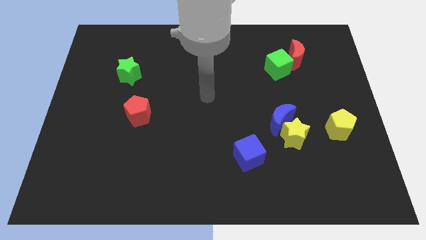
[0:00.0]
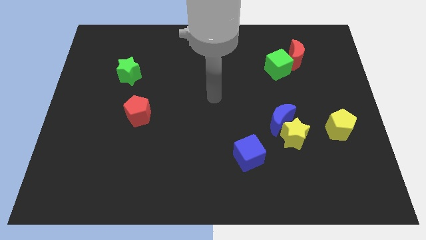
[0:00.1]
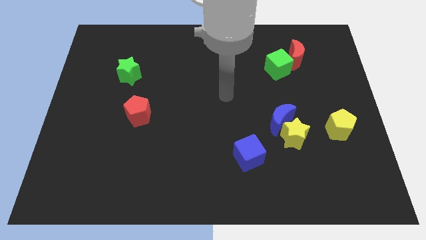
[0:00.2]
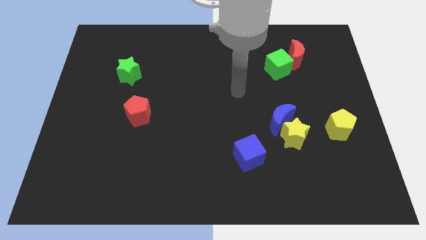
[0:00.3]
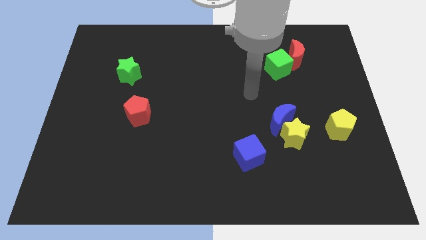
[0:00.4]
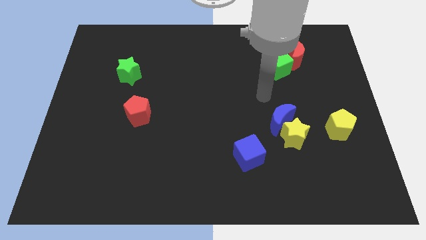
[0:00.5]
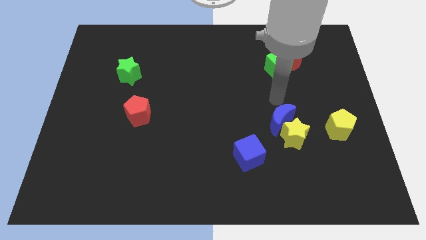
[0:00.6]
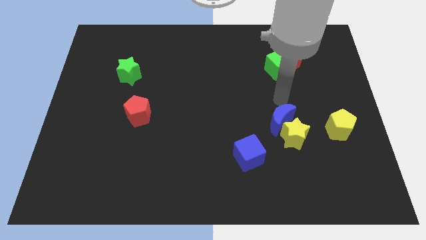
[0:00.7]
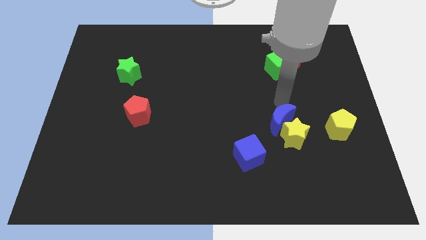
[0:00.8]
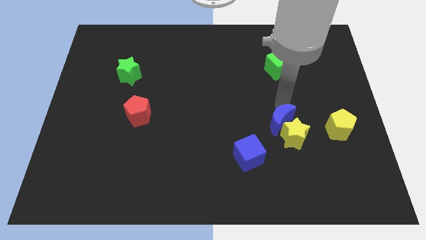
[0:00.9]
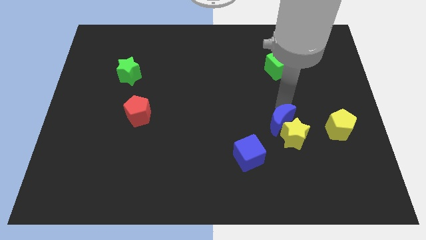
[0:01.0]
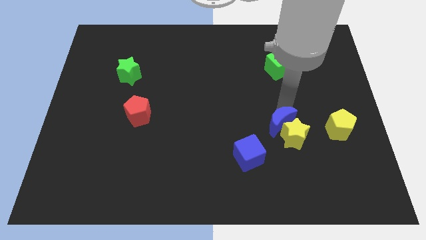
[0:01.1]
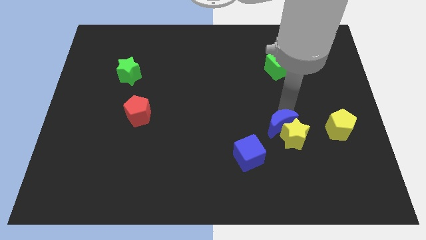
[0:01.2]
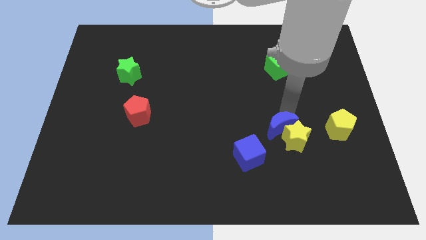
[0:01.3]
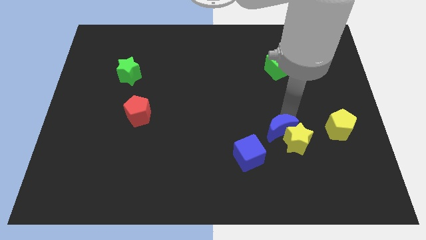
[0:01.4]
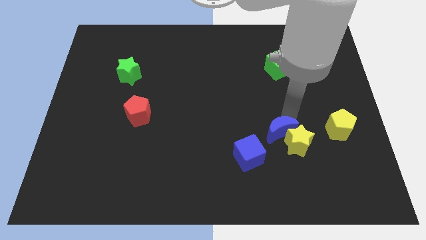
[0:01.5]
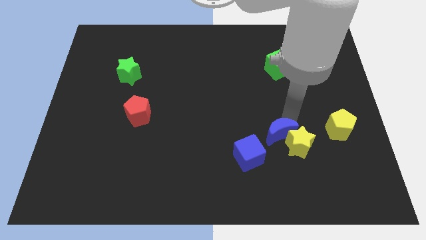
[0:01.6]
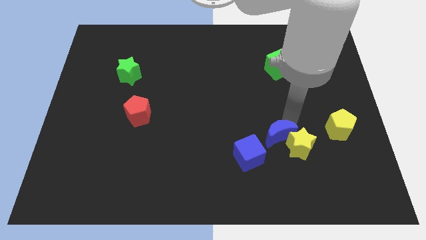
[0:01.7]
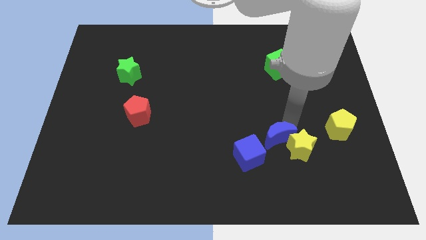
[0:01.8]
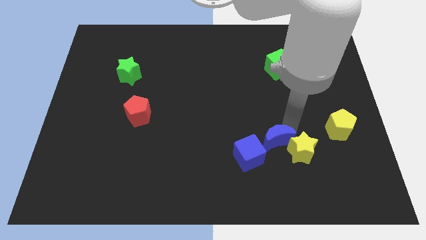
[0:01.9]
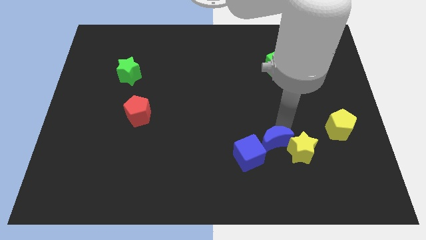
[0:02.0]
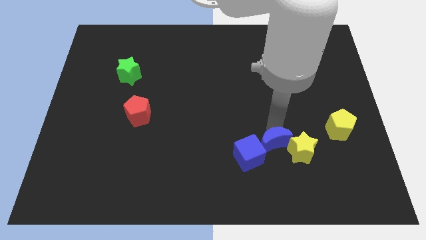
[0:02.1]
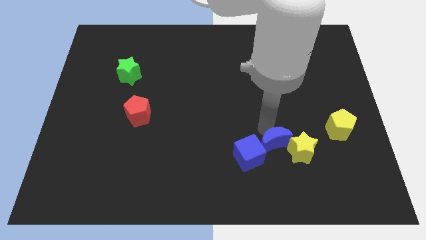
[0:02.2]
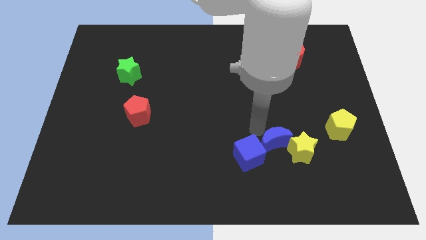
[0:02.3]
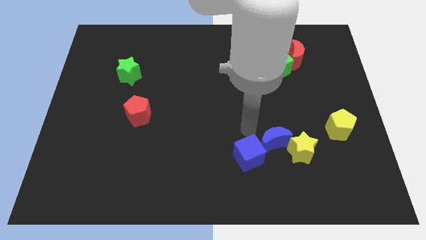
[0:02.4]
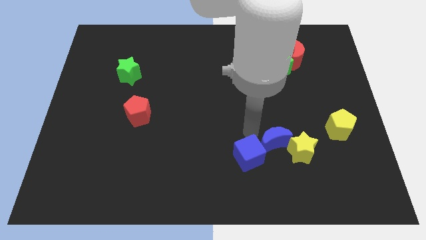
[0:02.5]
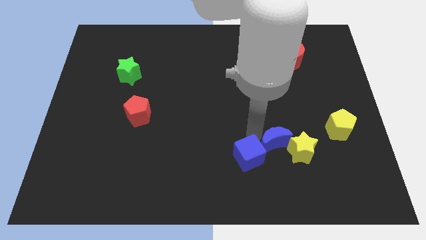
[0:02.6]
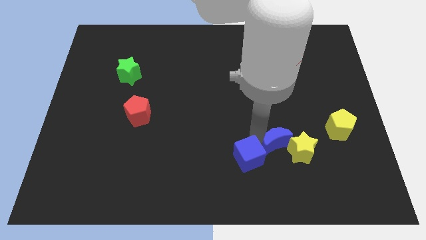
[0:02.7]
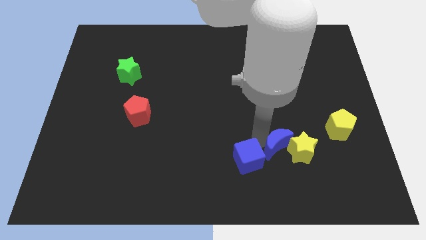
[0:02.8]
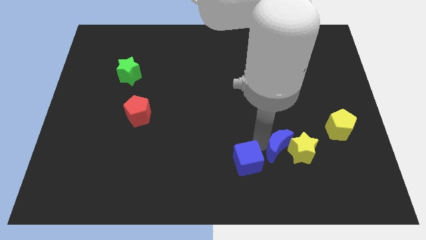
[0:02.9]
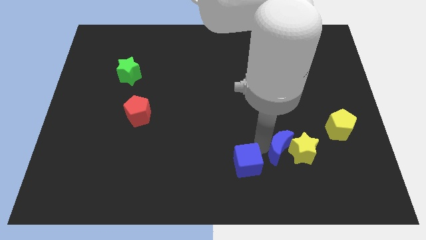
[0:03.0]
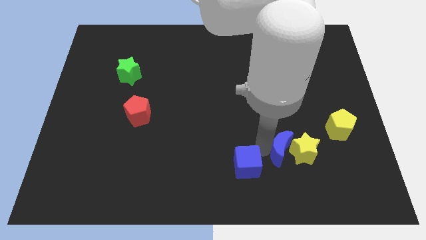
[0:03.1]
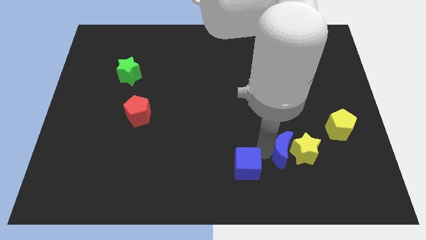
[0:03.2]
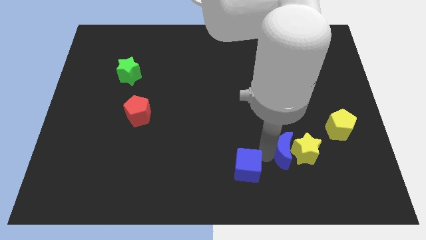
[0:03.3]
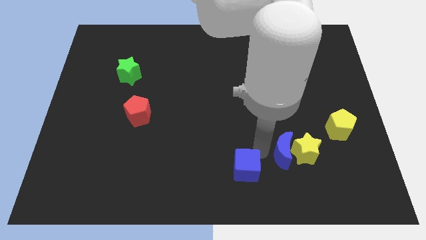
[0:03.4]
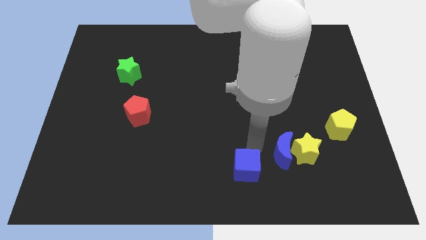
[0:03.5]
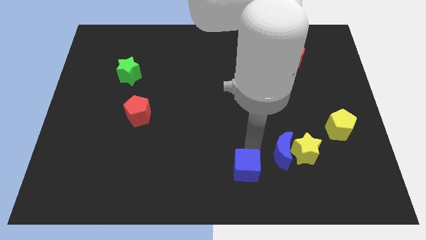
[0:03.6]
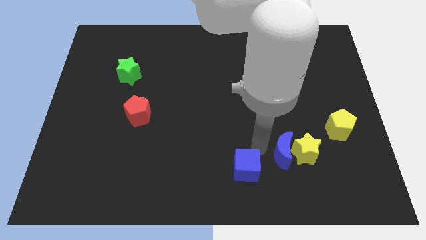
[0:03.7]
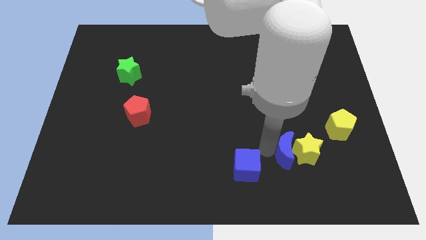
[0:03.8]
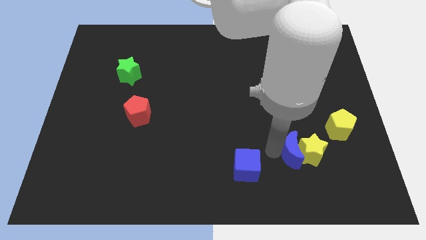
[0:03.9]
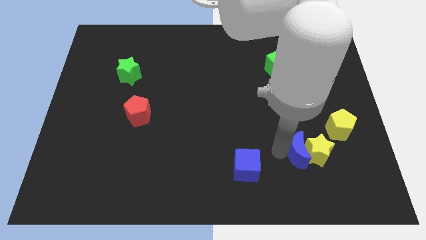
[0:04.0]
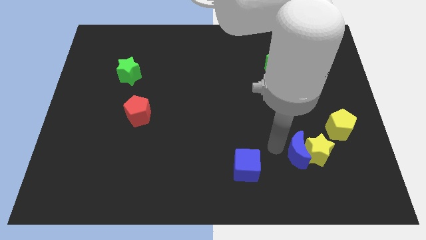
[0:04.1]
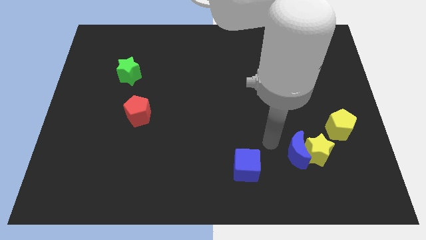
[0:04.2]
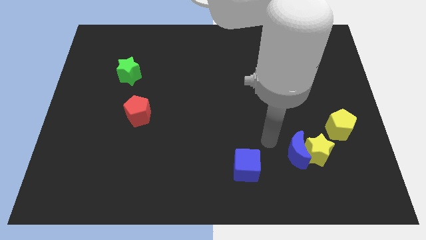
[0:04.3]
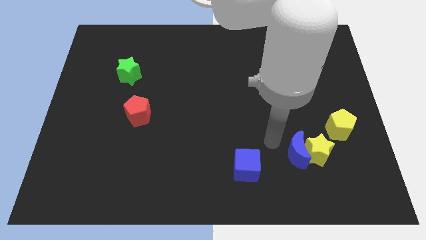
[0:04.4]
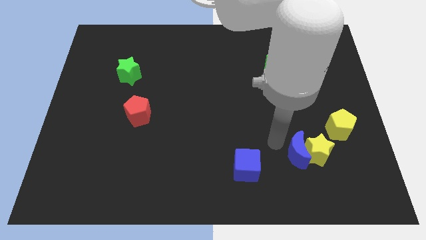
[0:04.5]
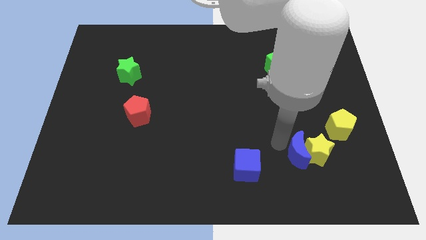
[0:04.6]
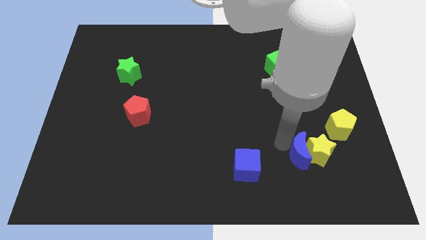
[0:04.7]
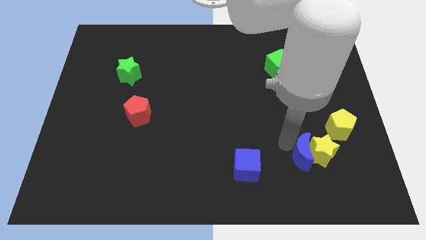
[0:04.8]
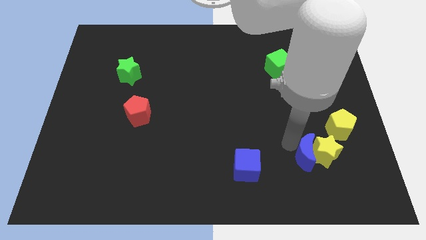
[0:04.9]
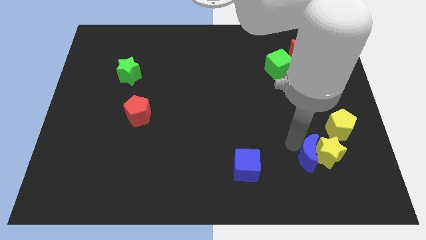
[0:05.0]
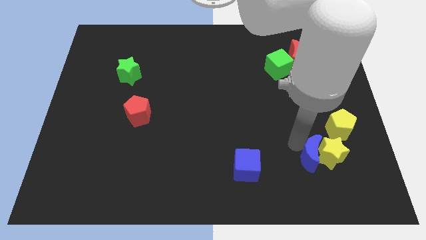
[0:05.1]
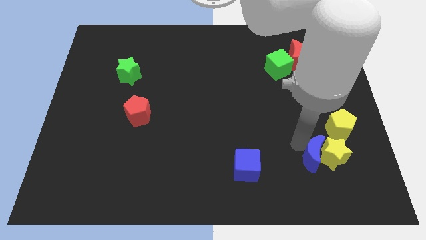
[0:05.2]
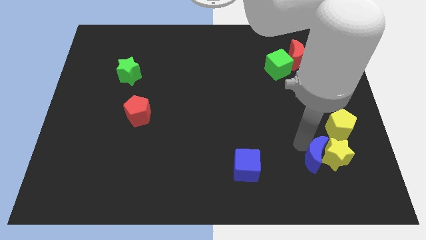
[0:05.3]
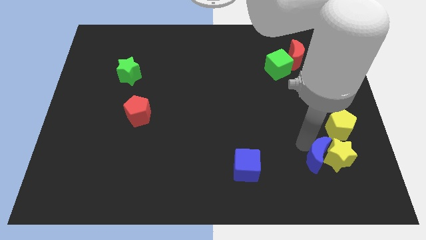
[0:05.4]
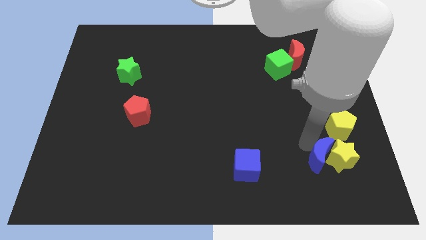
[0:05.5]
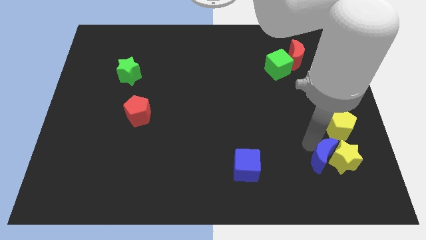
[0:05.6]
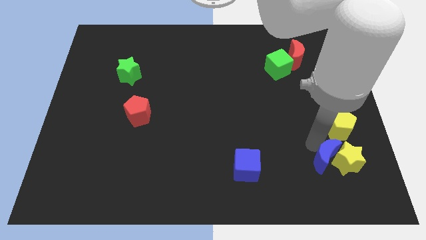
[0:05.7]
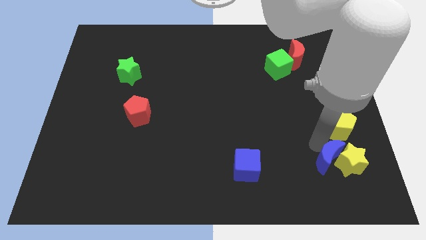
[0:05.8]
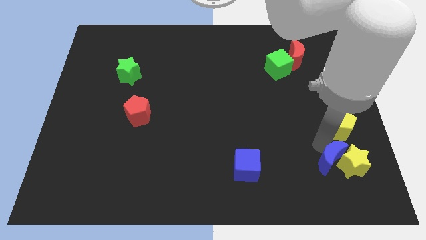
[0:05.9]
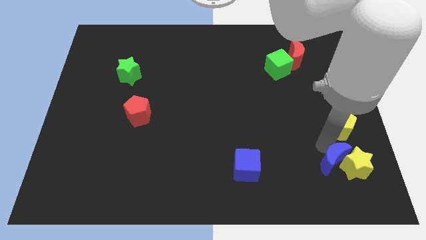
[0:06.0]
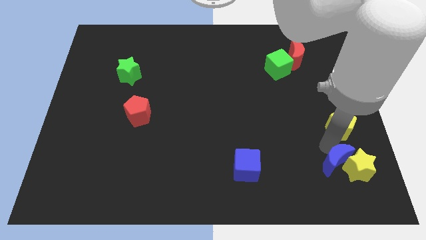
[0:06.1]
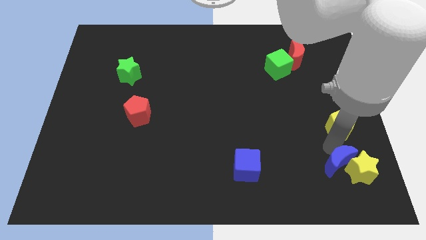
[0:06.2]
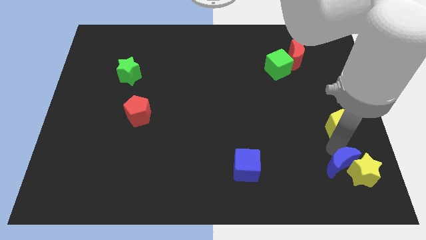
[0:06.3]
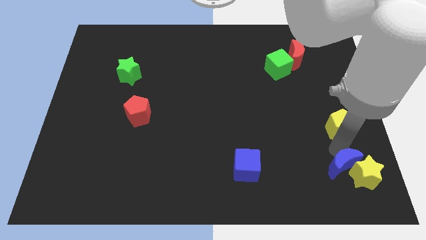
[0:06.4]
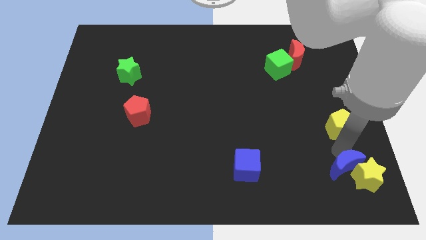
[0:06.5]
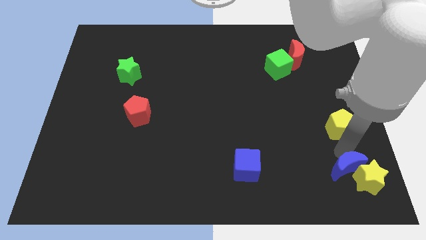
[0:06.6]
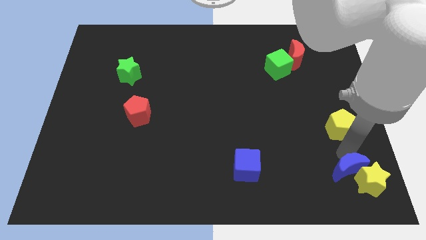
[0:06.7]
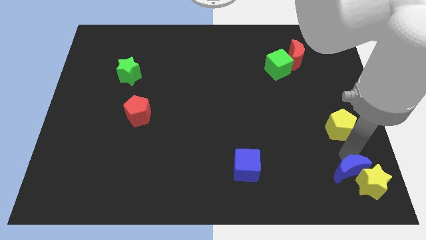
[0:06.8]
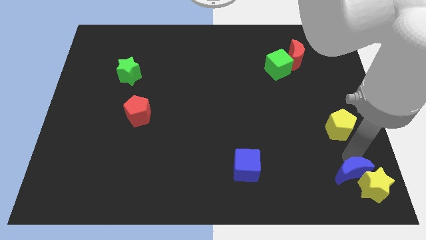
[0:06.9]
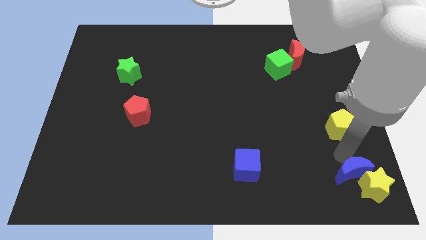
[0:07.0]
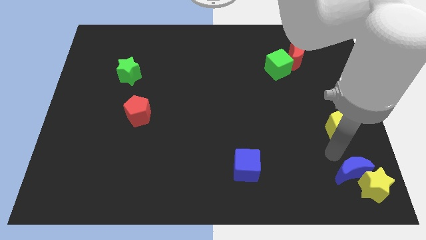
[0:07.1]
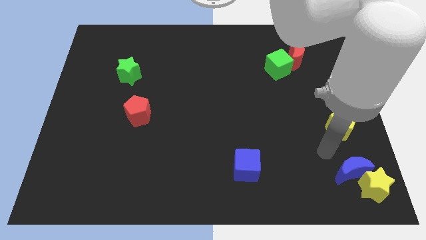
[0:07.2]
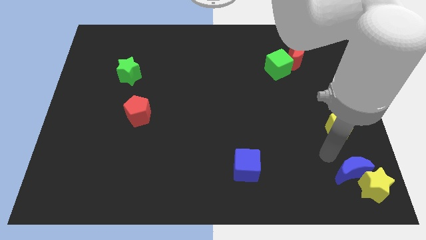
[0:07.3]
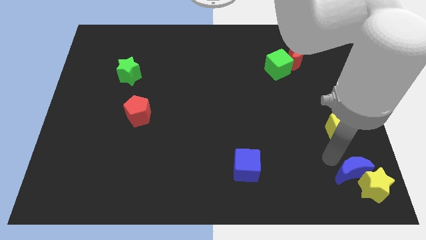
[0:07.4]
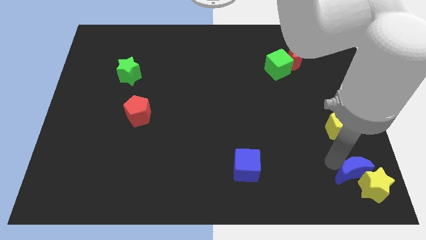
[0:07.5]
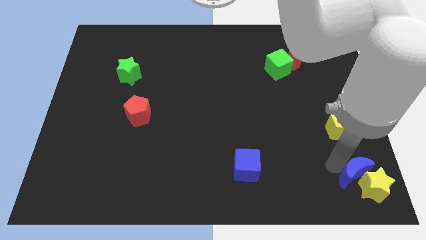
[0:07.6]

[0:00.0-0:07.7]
push the blue moon to the bottom right
